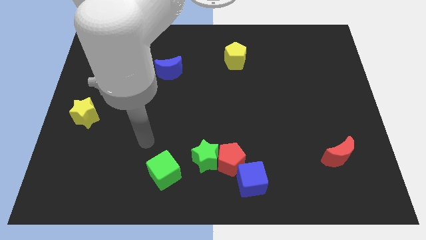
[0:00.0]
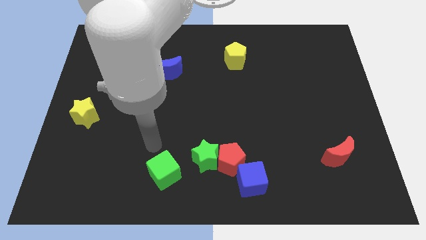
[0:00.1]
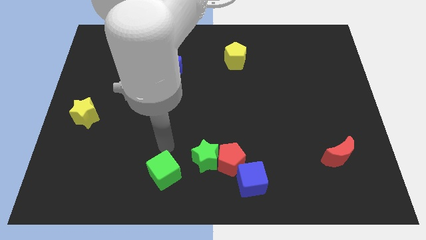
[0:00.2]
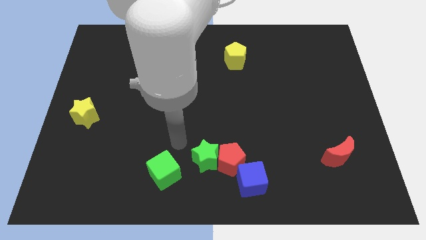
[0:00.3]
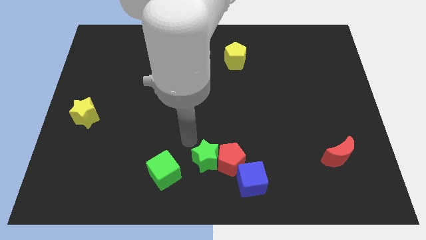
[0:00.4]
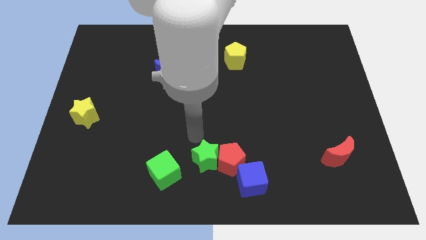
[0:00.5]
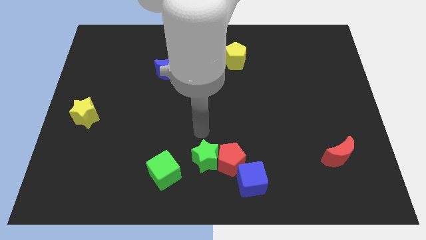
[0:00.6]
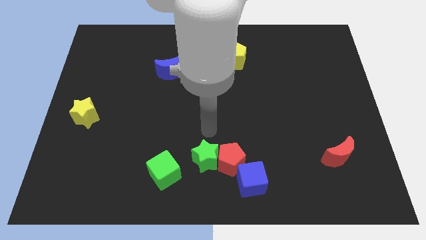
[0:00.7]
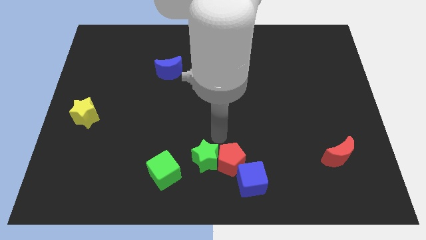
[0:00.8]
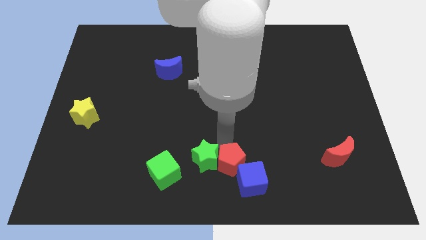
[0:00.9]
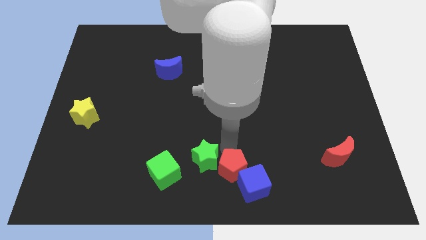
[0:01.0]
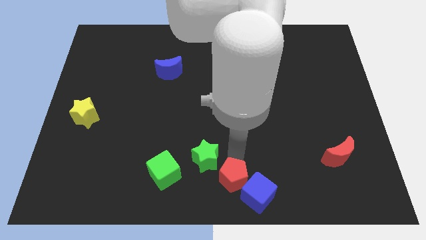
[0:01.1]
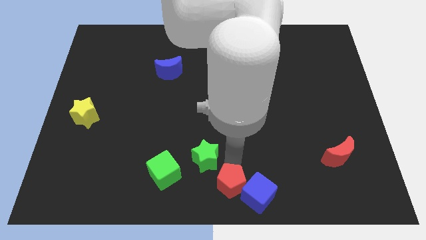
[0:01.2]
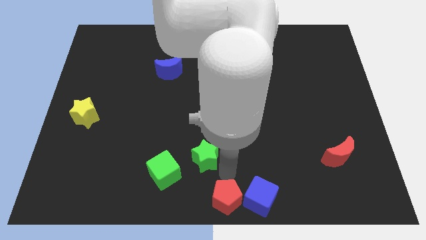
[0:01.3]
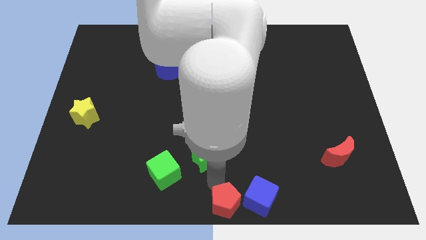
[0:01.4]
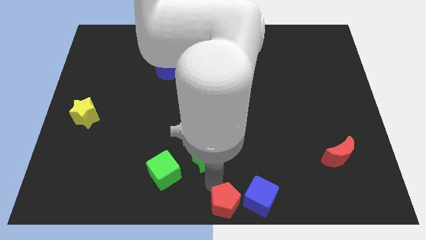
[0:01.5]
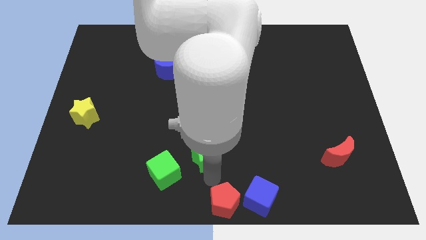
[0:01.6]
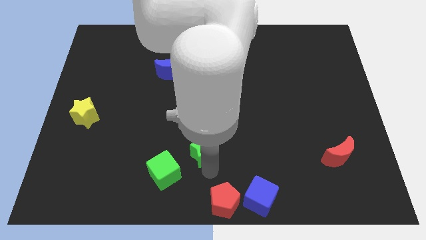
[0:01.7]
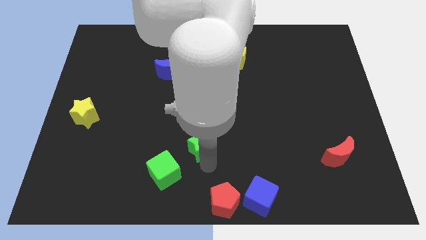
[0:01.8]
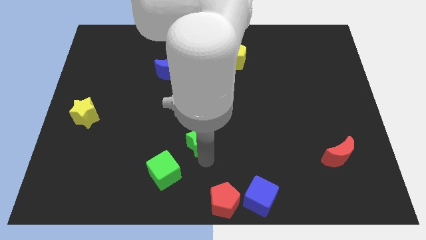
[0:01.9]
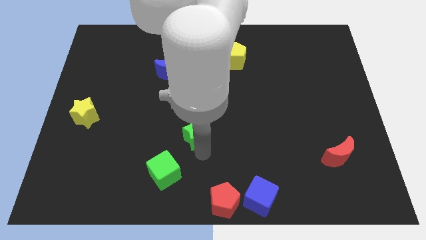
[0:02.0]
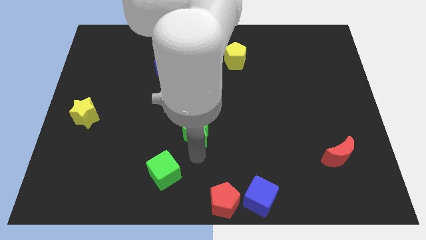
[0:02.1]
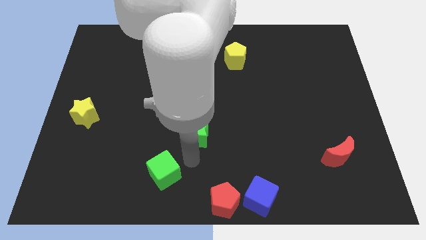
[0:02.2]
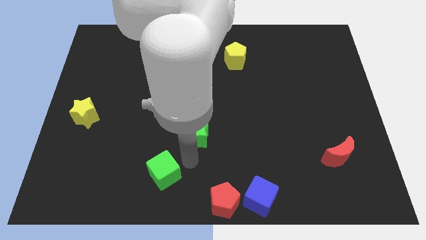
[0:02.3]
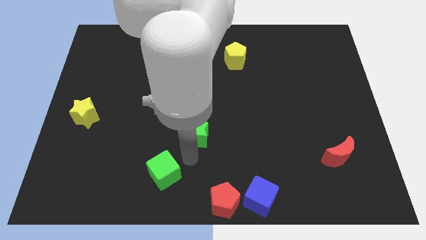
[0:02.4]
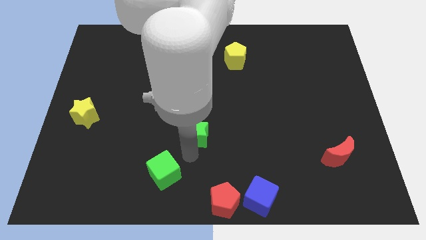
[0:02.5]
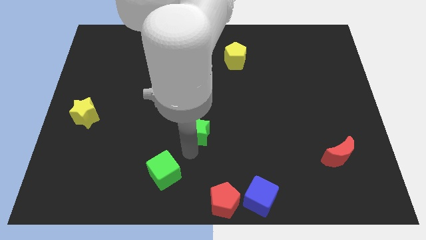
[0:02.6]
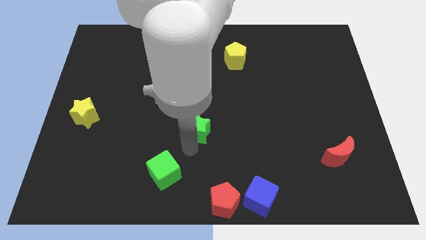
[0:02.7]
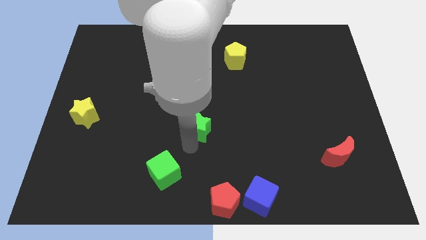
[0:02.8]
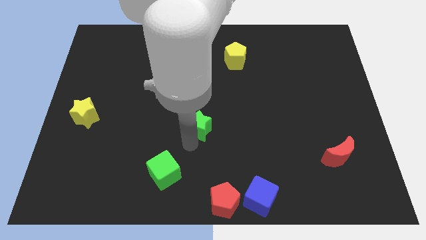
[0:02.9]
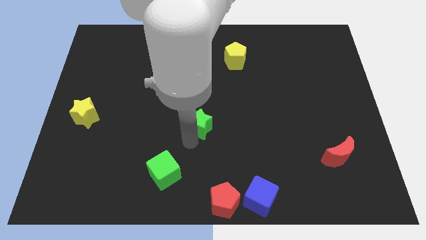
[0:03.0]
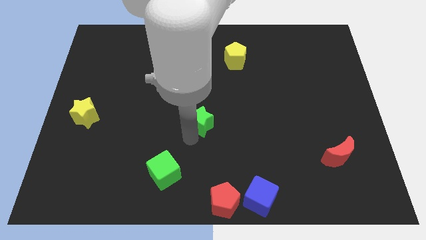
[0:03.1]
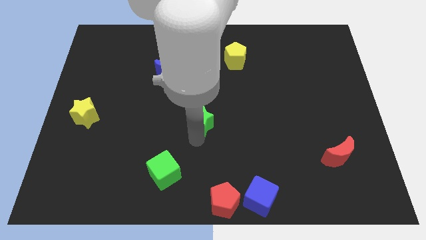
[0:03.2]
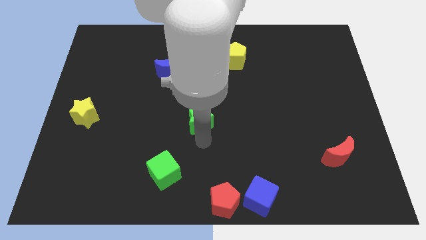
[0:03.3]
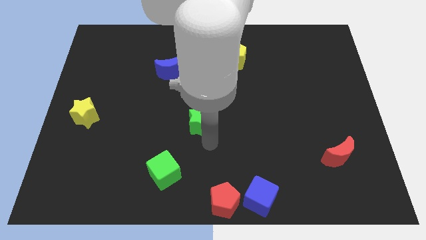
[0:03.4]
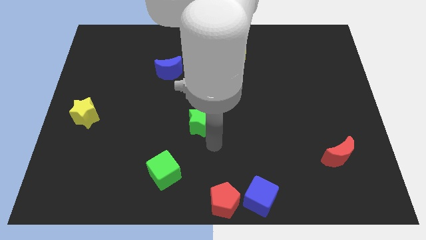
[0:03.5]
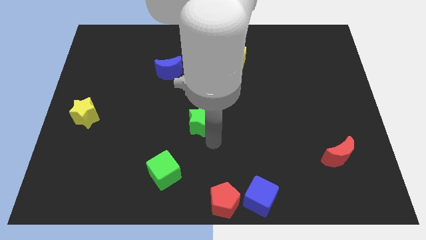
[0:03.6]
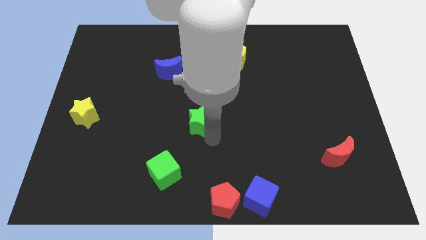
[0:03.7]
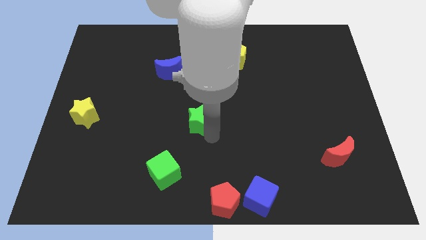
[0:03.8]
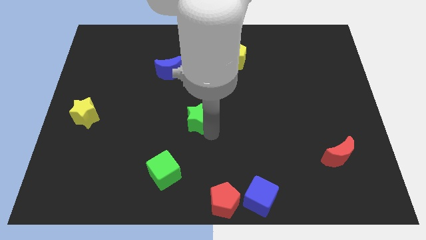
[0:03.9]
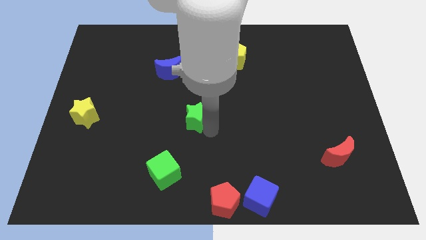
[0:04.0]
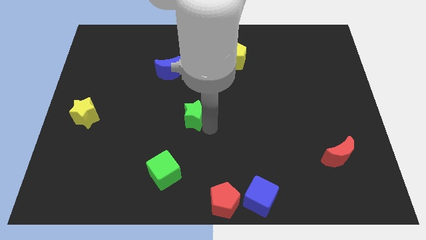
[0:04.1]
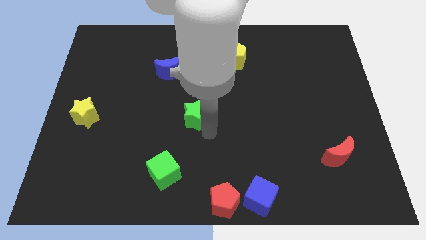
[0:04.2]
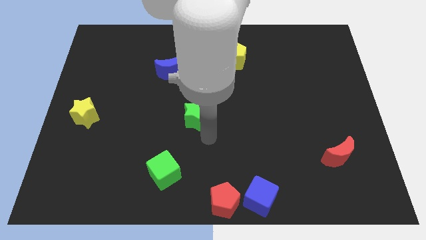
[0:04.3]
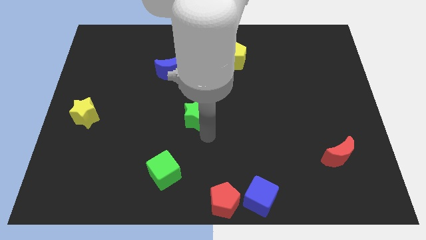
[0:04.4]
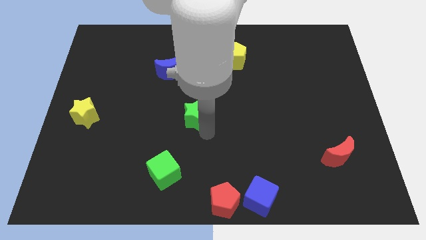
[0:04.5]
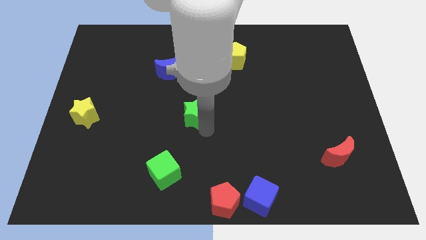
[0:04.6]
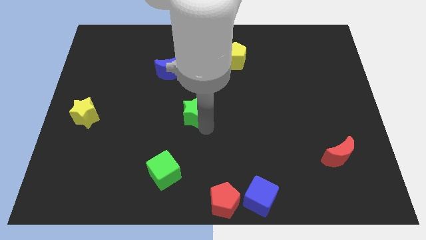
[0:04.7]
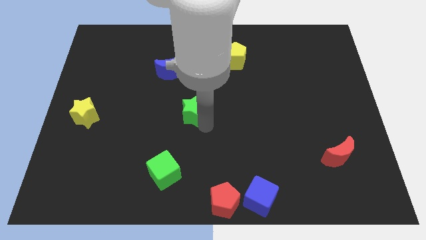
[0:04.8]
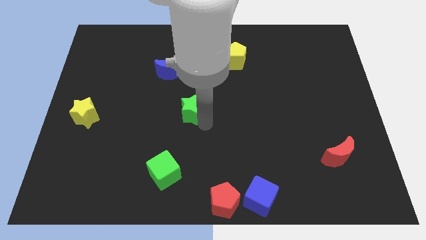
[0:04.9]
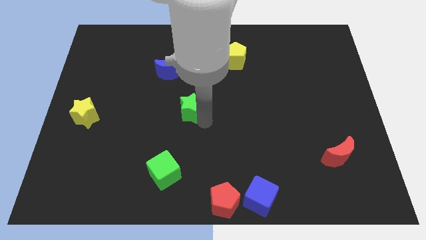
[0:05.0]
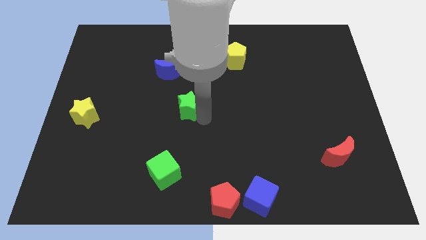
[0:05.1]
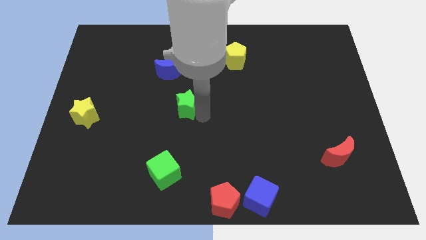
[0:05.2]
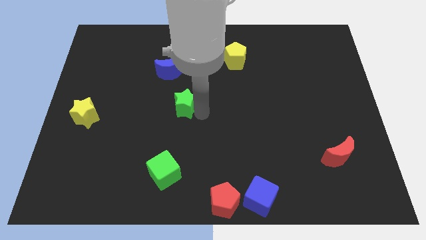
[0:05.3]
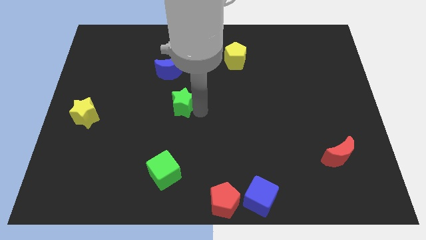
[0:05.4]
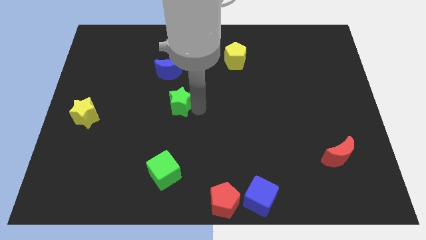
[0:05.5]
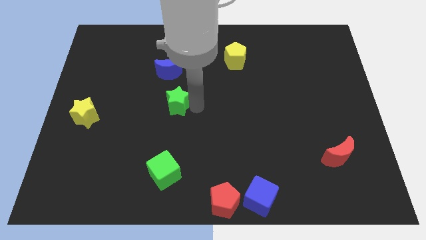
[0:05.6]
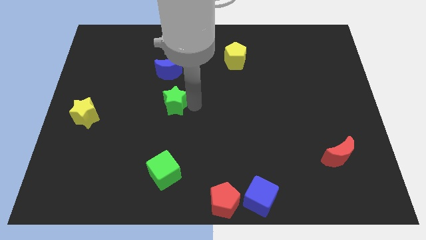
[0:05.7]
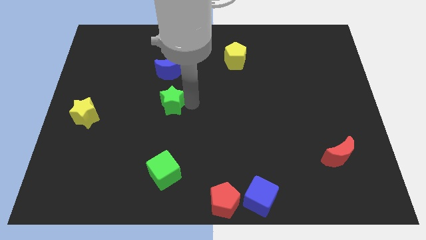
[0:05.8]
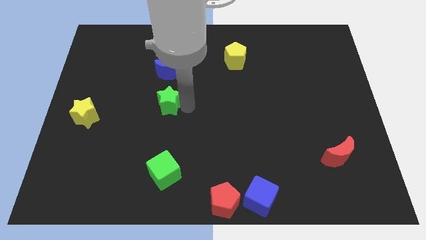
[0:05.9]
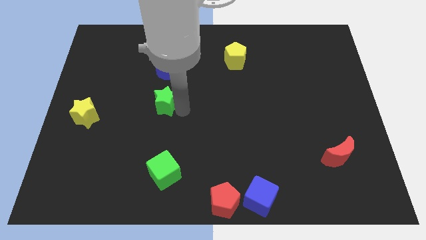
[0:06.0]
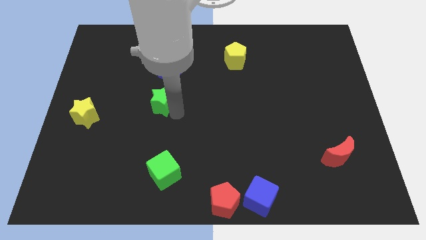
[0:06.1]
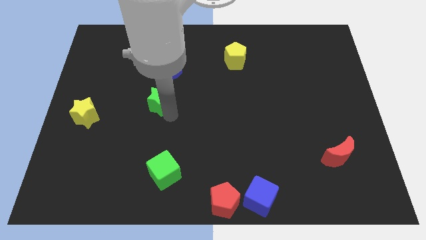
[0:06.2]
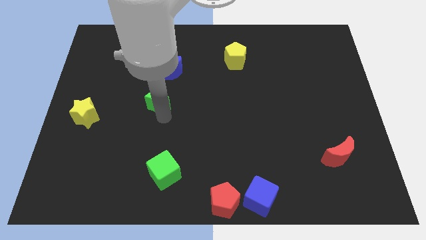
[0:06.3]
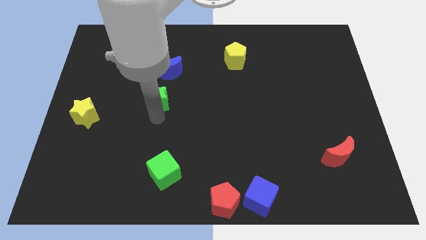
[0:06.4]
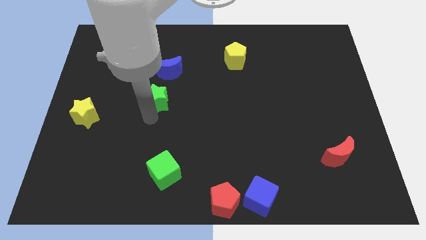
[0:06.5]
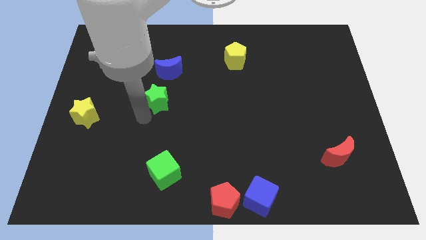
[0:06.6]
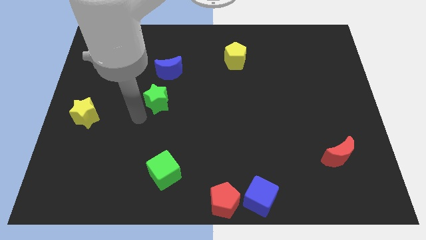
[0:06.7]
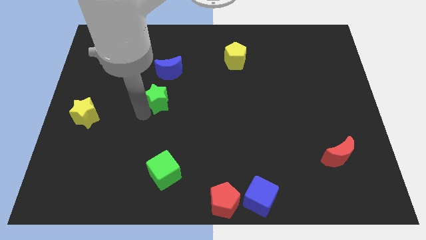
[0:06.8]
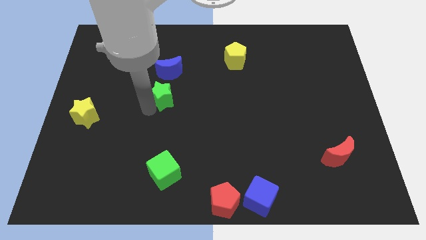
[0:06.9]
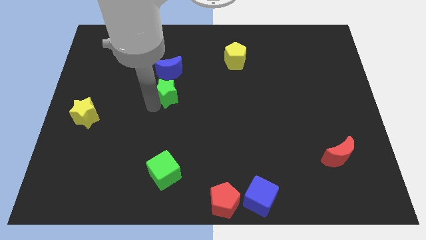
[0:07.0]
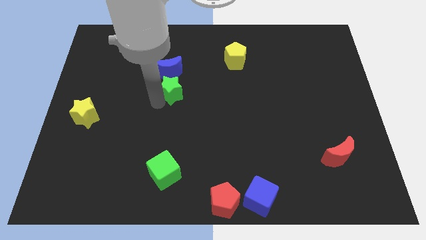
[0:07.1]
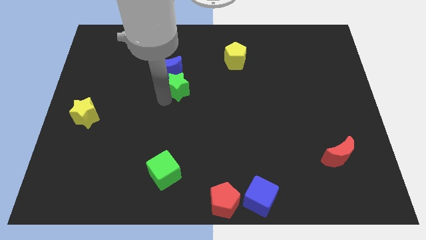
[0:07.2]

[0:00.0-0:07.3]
put the green star to the blue moon
